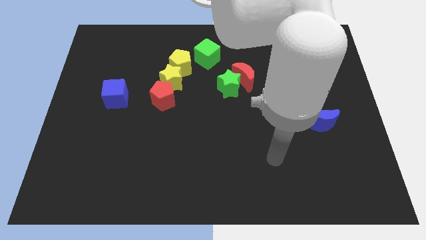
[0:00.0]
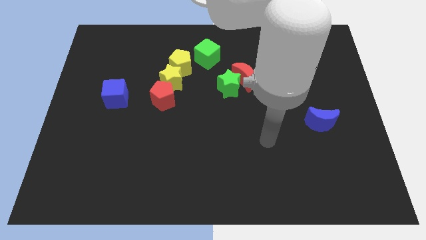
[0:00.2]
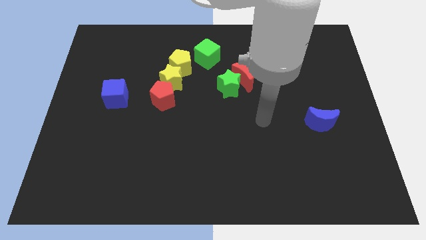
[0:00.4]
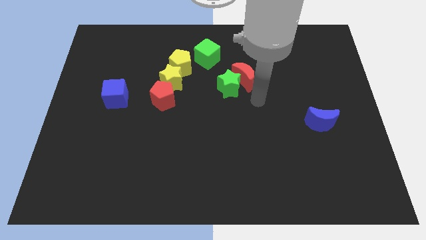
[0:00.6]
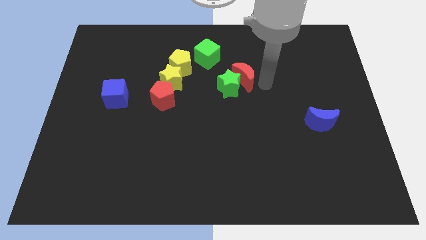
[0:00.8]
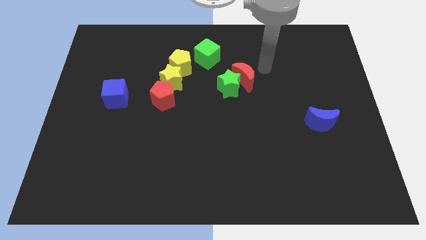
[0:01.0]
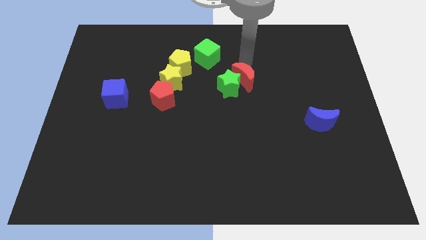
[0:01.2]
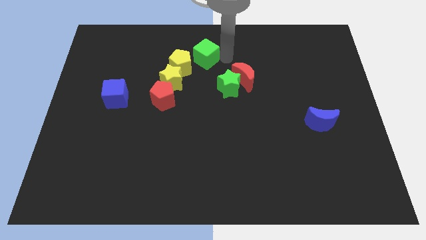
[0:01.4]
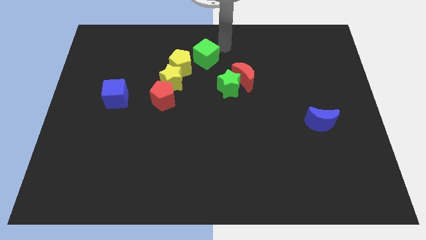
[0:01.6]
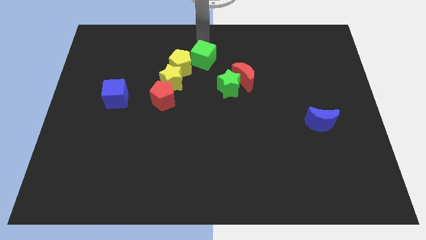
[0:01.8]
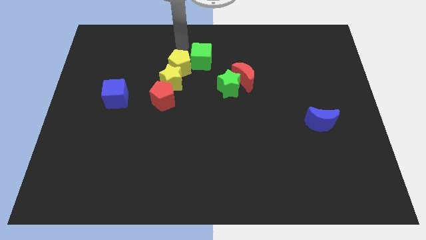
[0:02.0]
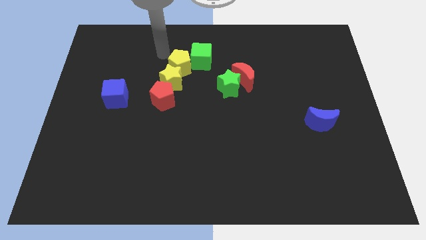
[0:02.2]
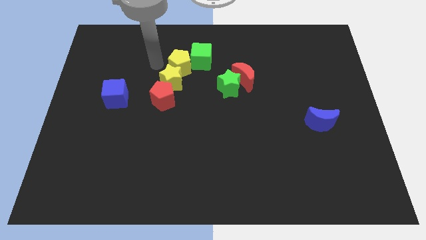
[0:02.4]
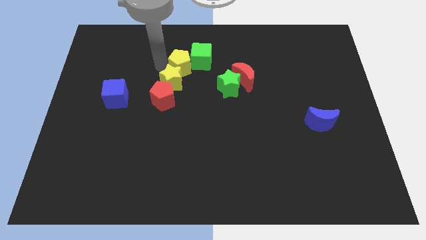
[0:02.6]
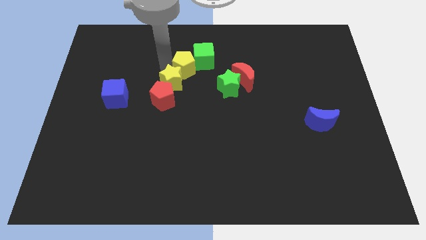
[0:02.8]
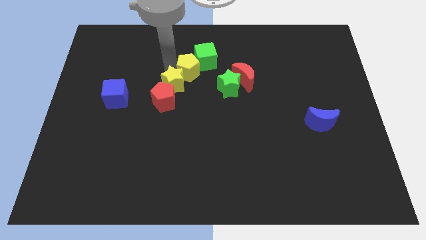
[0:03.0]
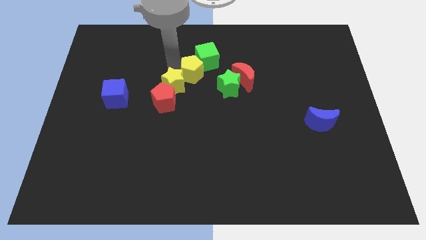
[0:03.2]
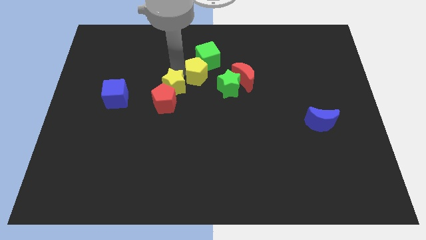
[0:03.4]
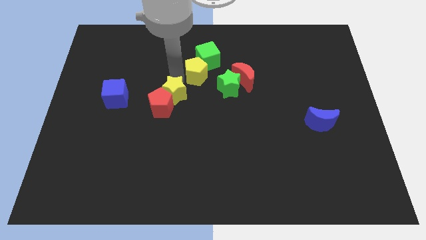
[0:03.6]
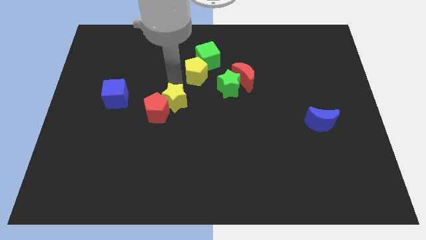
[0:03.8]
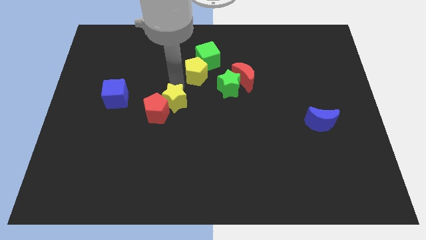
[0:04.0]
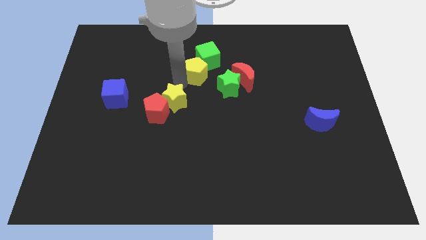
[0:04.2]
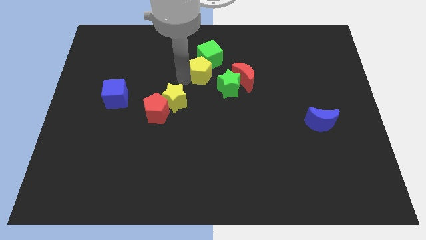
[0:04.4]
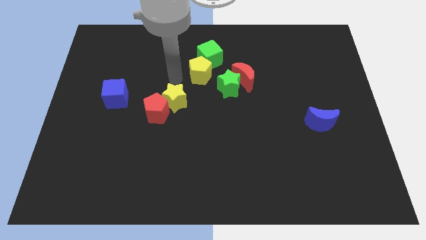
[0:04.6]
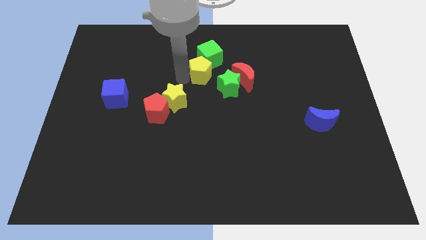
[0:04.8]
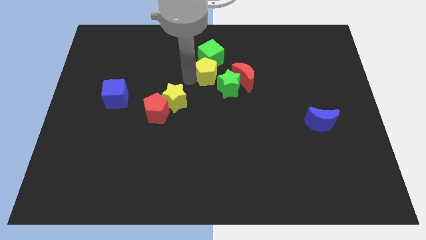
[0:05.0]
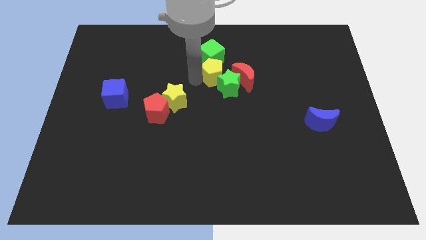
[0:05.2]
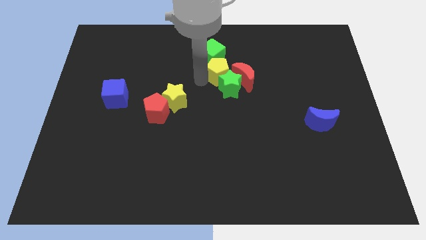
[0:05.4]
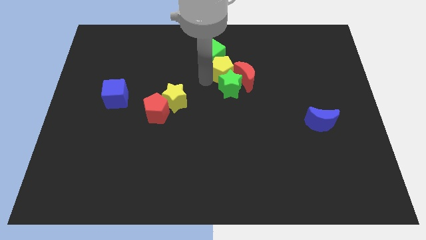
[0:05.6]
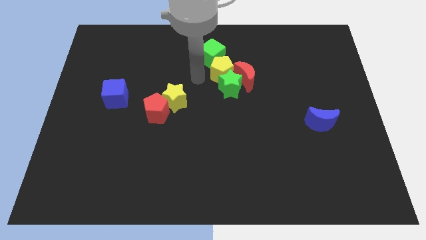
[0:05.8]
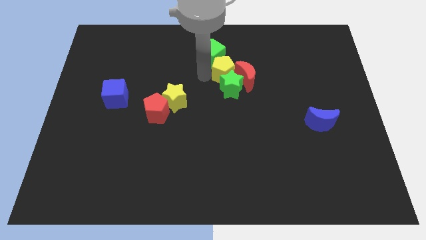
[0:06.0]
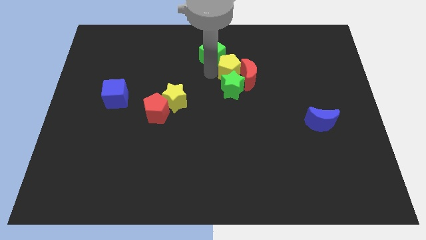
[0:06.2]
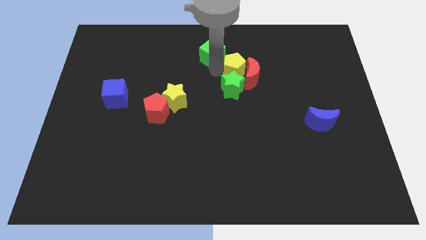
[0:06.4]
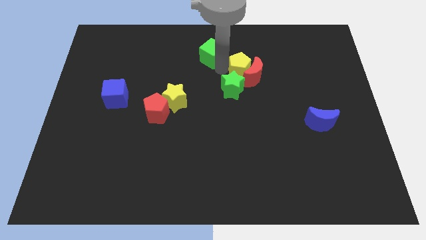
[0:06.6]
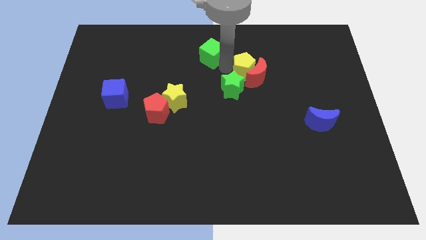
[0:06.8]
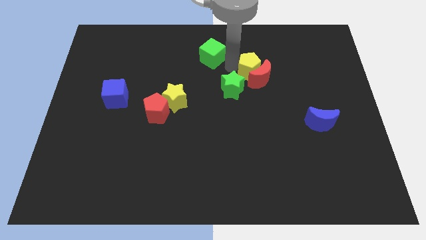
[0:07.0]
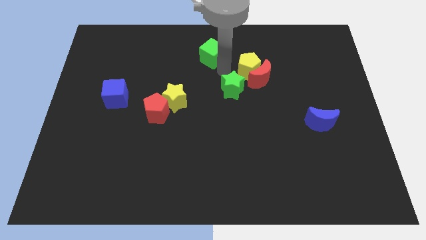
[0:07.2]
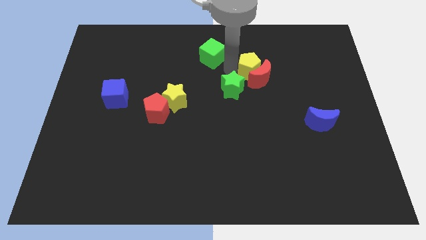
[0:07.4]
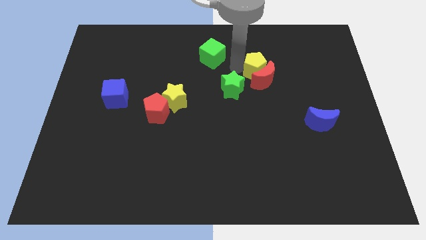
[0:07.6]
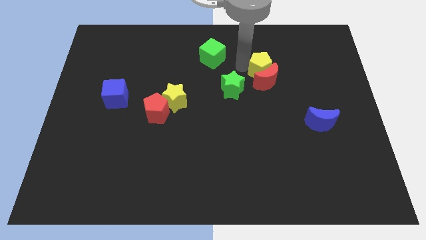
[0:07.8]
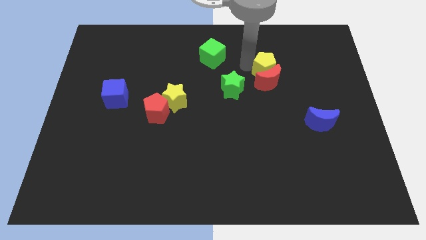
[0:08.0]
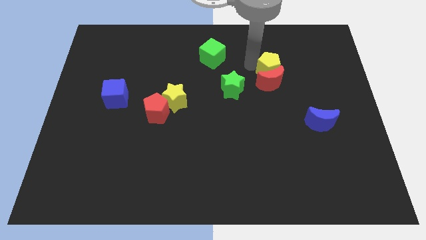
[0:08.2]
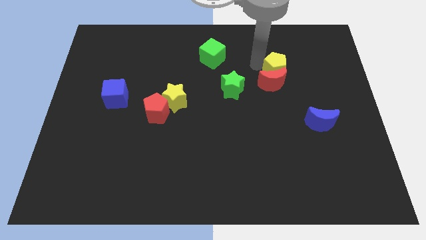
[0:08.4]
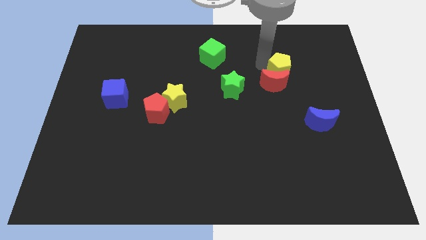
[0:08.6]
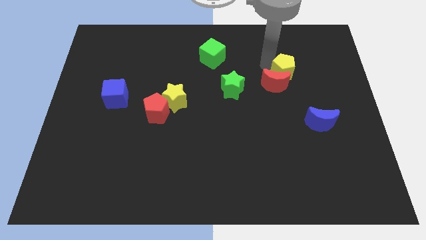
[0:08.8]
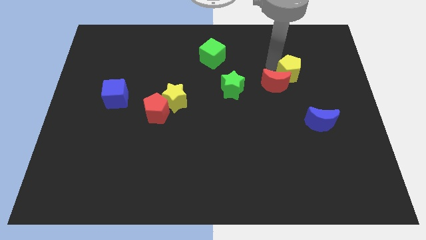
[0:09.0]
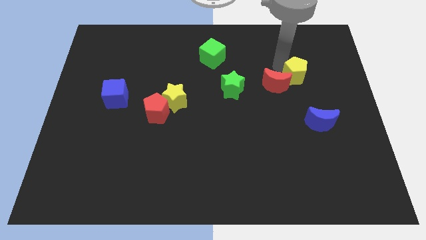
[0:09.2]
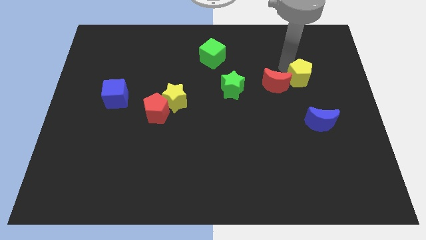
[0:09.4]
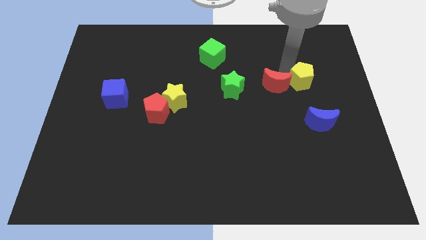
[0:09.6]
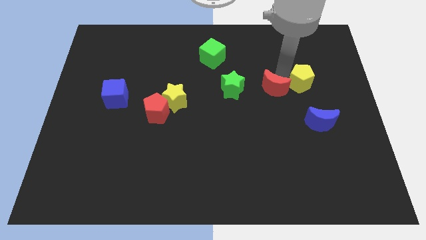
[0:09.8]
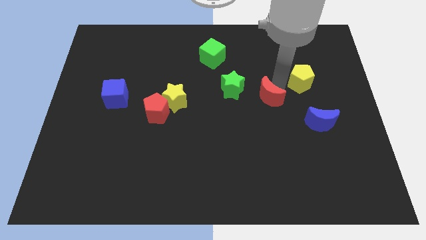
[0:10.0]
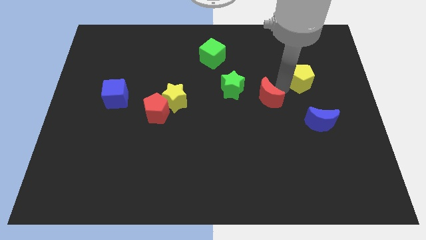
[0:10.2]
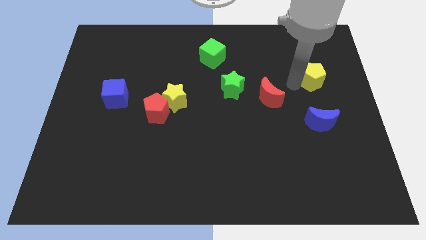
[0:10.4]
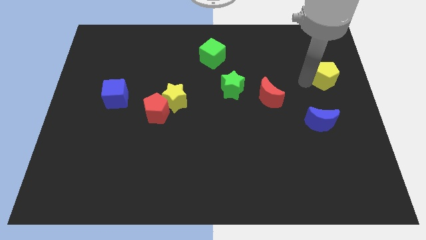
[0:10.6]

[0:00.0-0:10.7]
slide the yellow pentagon to the right side of the board

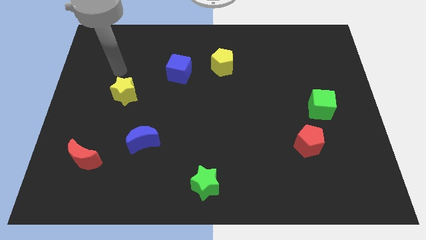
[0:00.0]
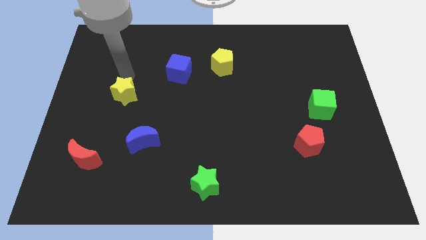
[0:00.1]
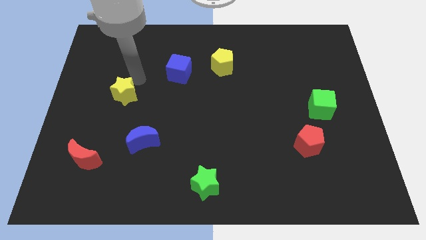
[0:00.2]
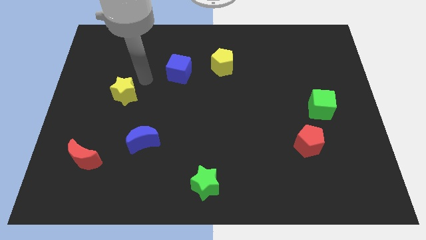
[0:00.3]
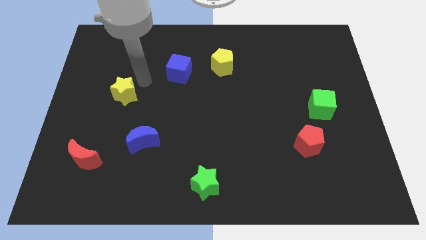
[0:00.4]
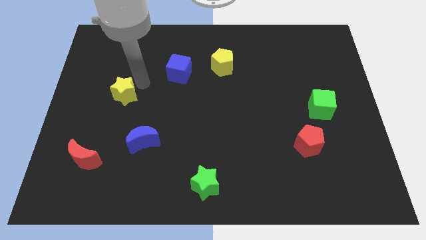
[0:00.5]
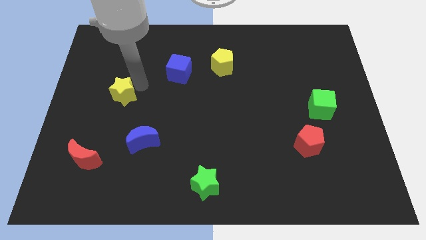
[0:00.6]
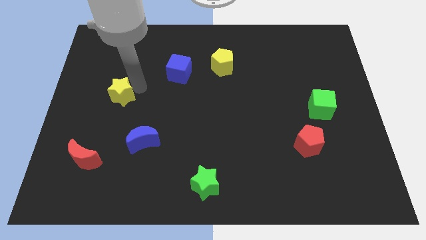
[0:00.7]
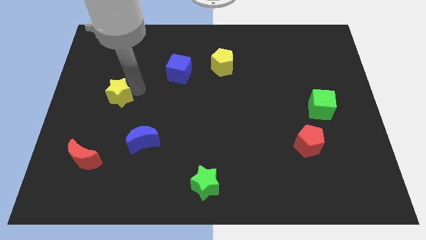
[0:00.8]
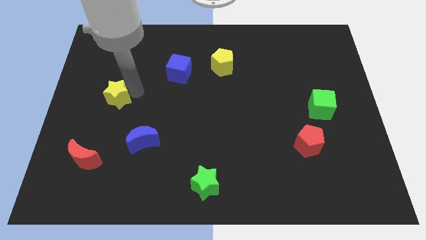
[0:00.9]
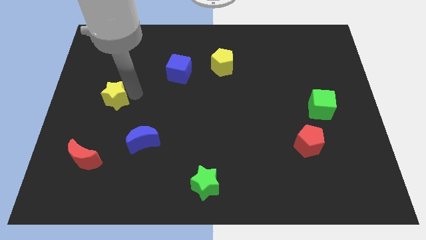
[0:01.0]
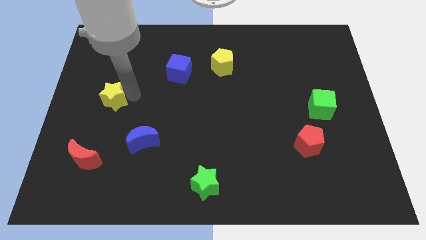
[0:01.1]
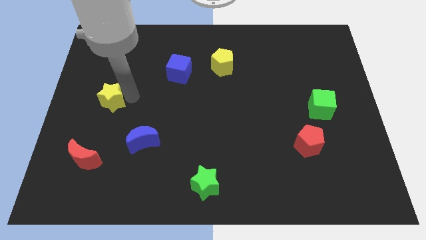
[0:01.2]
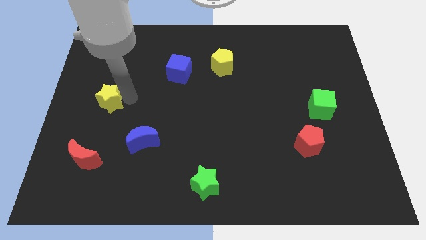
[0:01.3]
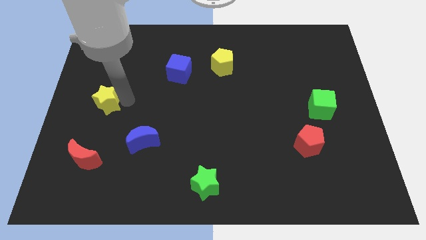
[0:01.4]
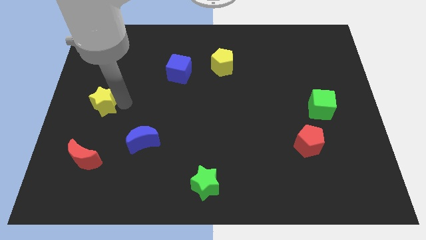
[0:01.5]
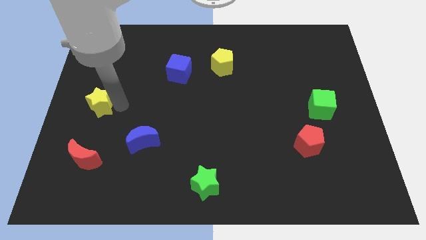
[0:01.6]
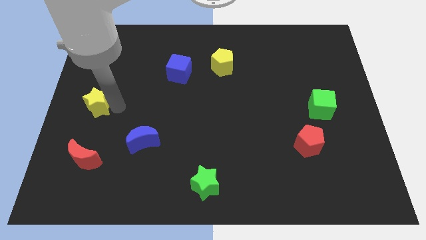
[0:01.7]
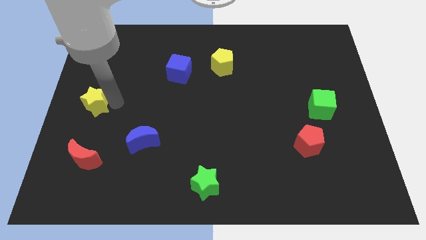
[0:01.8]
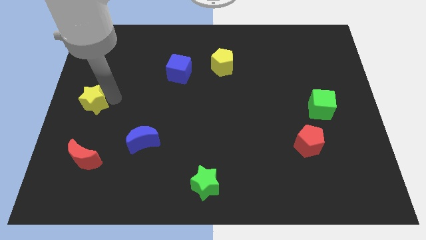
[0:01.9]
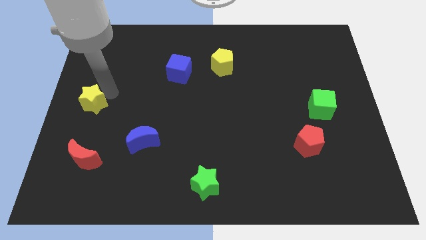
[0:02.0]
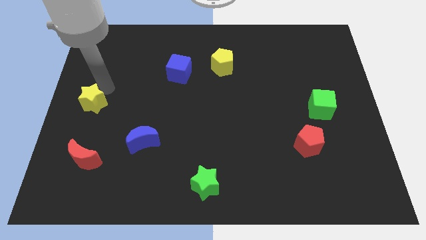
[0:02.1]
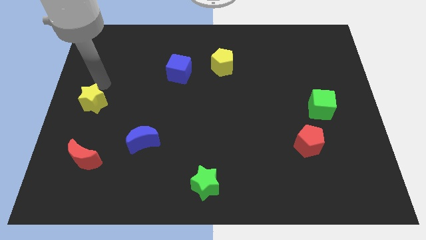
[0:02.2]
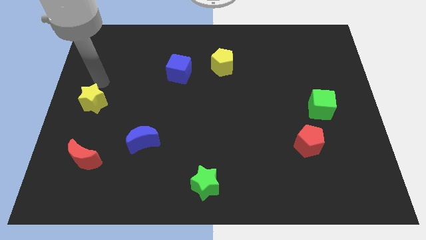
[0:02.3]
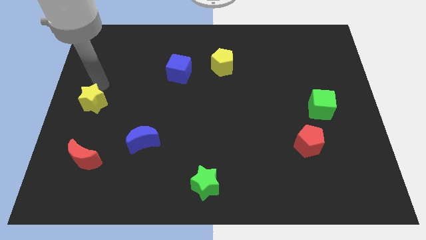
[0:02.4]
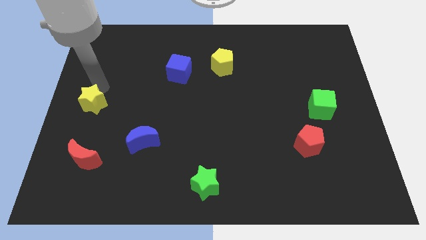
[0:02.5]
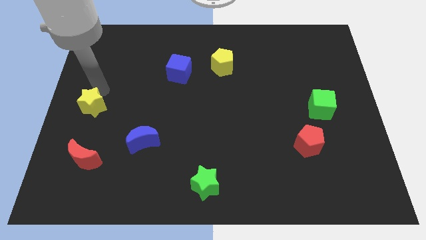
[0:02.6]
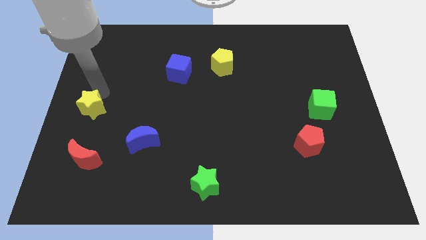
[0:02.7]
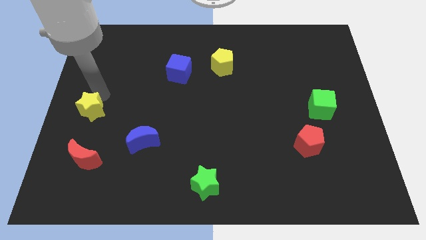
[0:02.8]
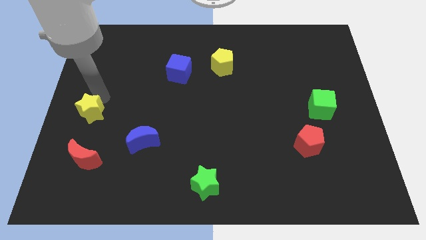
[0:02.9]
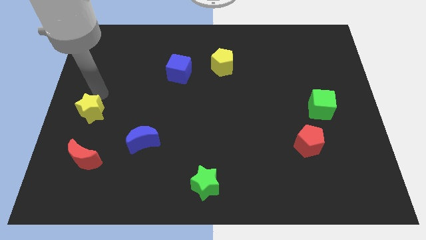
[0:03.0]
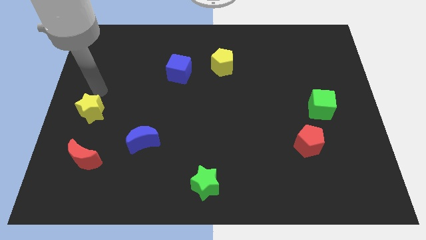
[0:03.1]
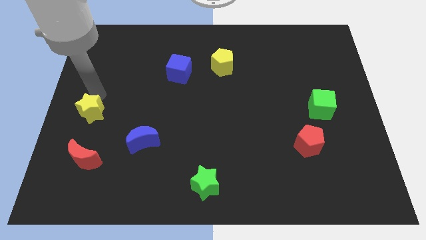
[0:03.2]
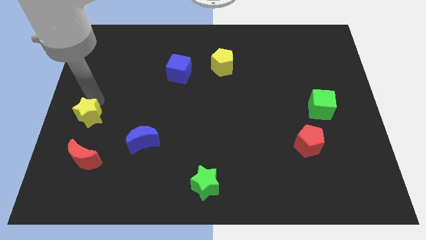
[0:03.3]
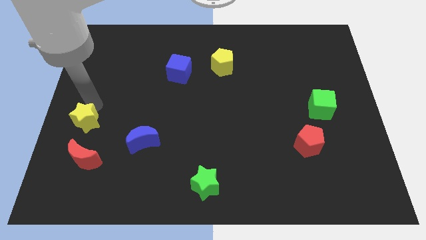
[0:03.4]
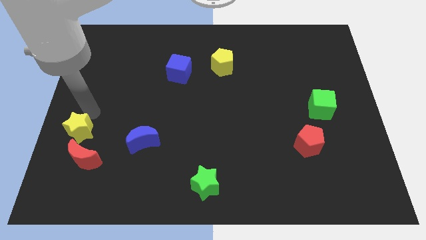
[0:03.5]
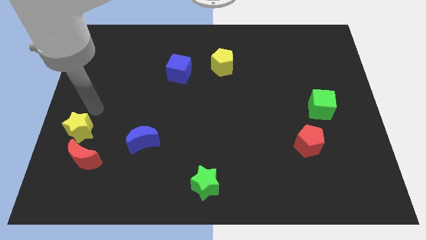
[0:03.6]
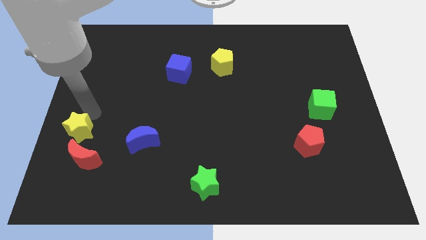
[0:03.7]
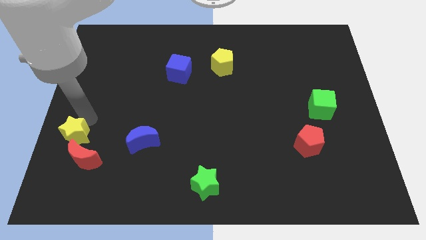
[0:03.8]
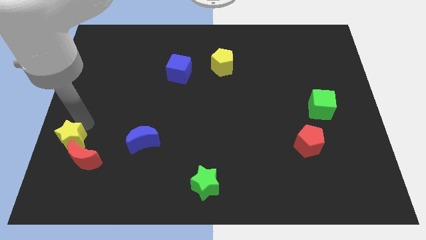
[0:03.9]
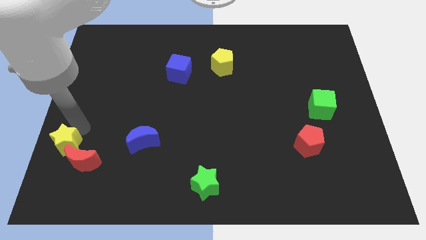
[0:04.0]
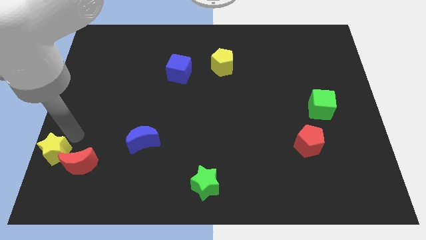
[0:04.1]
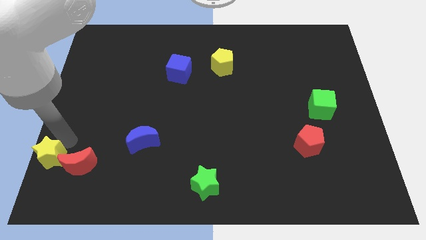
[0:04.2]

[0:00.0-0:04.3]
put the yellow star to the bottom left
